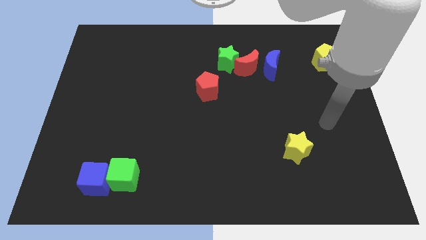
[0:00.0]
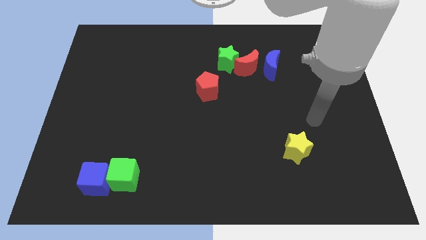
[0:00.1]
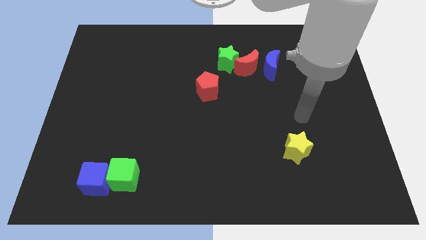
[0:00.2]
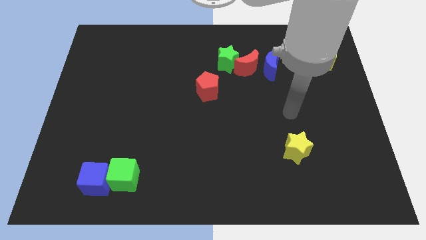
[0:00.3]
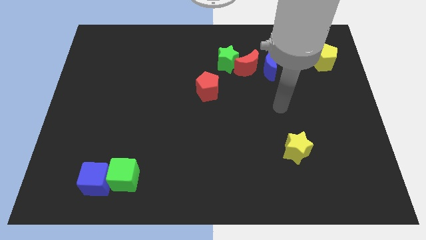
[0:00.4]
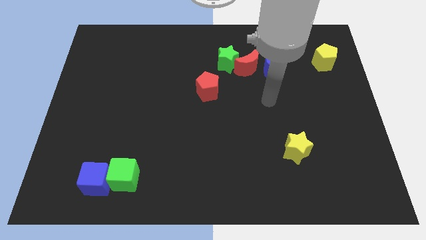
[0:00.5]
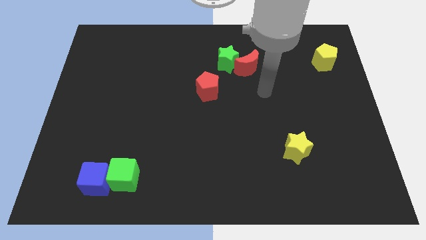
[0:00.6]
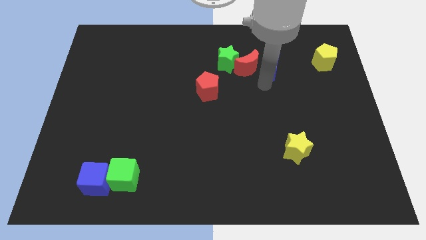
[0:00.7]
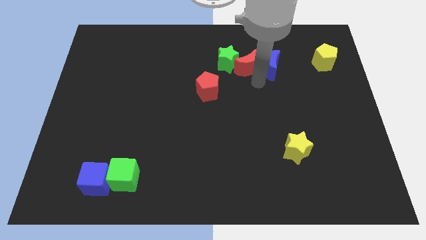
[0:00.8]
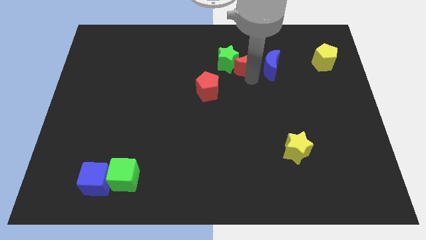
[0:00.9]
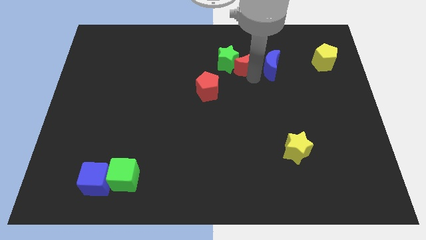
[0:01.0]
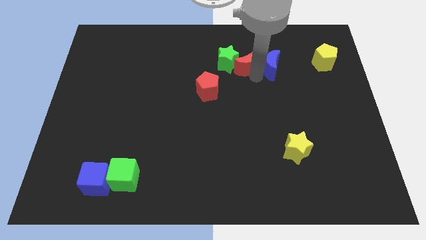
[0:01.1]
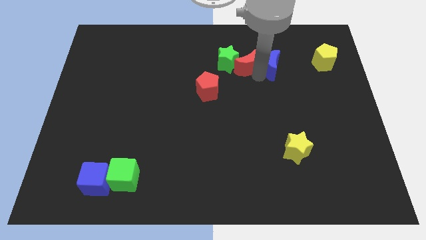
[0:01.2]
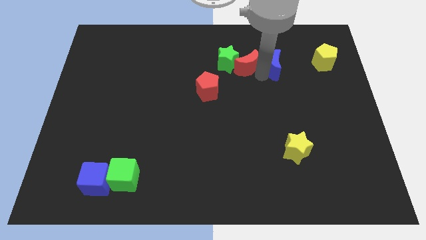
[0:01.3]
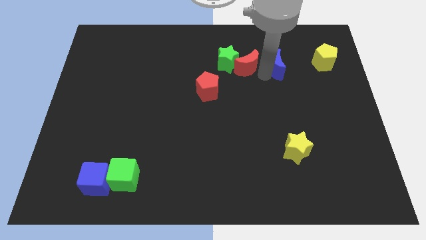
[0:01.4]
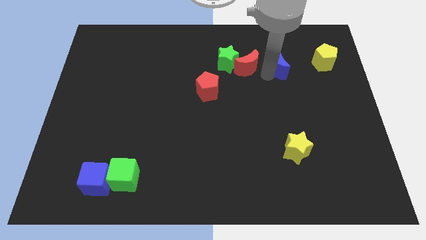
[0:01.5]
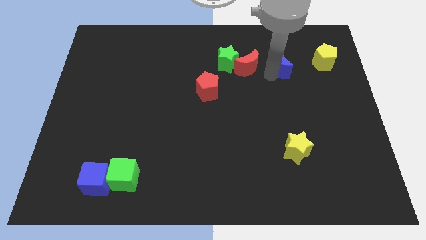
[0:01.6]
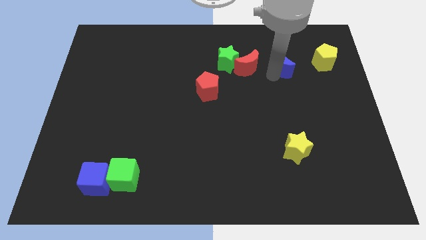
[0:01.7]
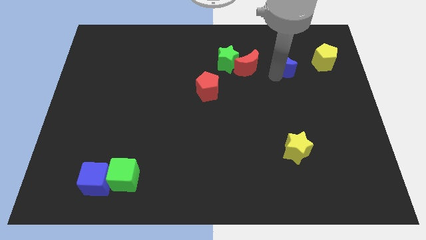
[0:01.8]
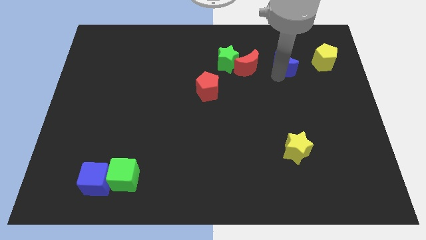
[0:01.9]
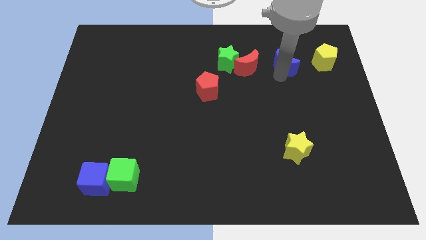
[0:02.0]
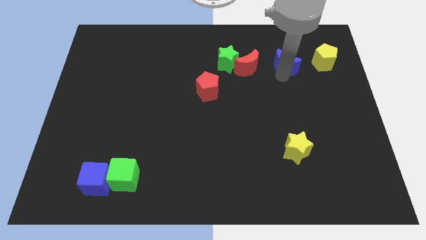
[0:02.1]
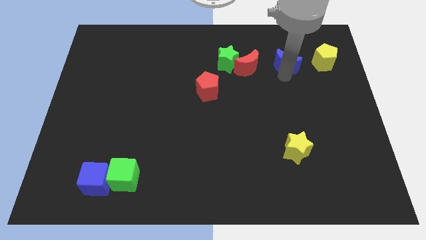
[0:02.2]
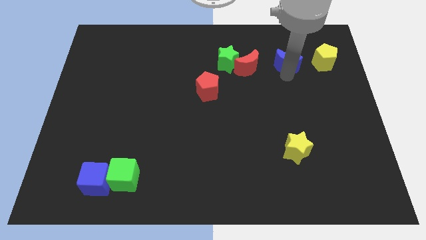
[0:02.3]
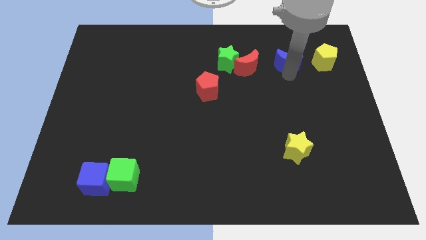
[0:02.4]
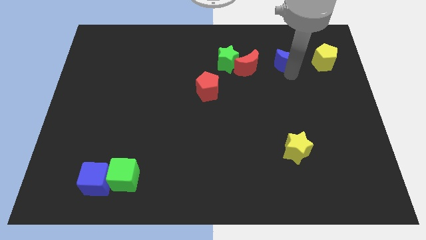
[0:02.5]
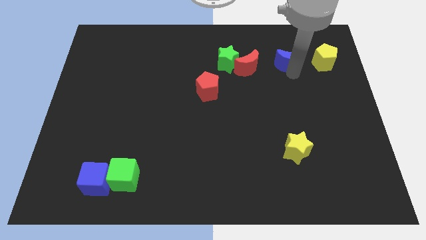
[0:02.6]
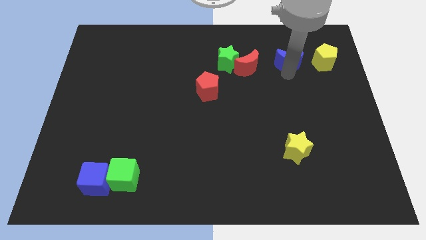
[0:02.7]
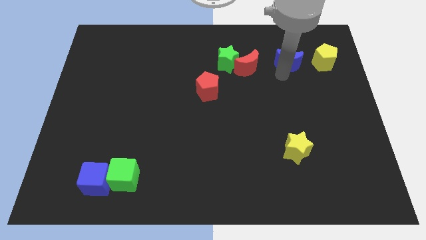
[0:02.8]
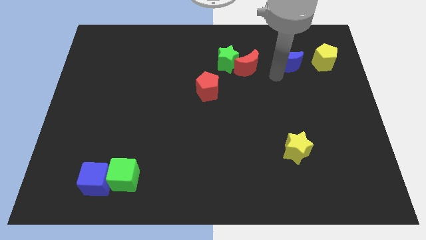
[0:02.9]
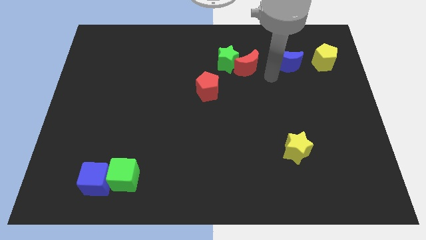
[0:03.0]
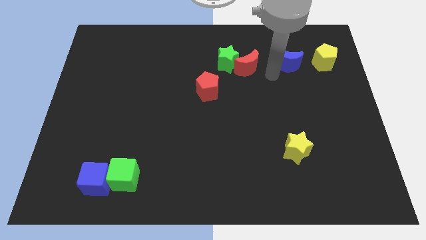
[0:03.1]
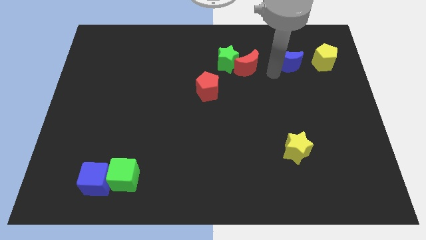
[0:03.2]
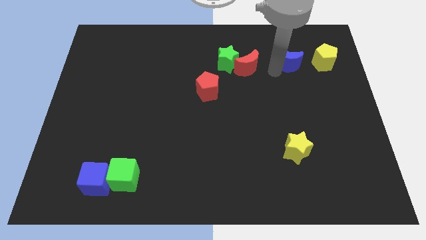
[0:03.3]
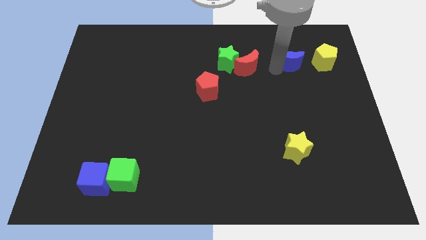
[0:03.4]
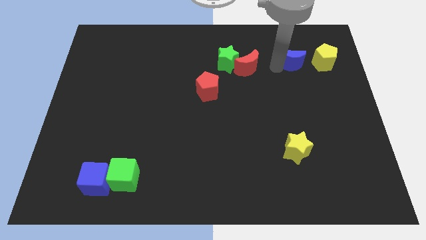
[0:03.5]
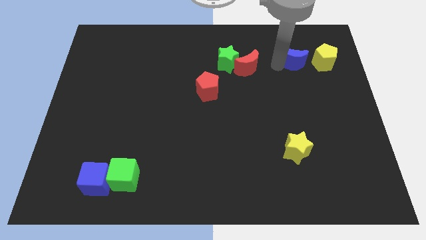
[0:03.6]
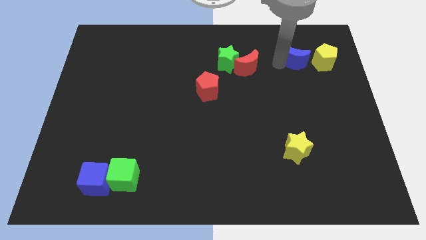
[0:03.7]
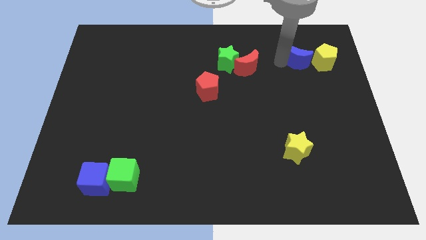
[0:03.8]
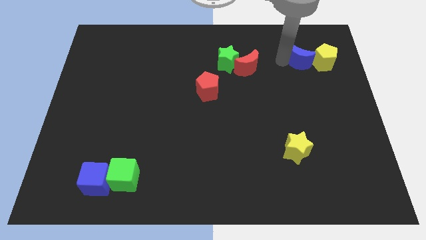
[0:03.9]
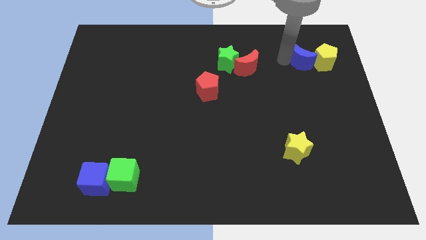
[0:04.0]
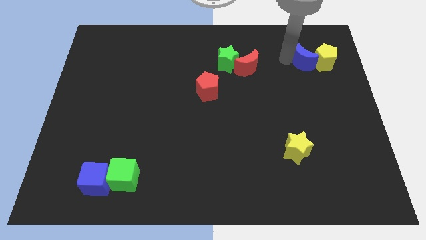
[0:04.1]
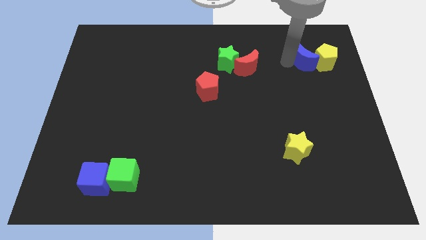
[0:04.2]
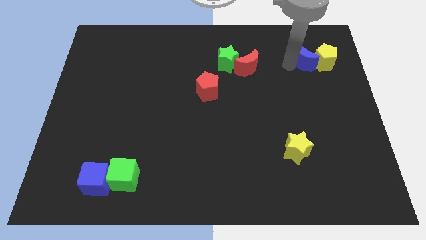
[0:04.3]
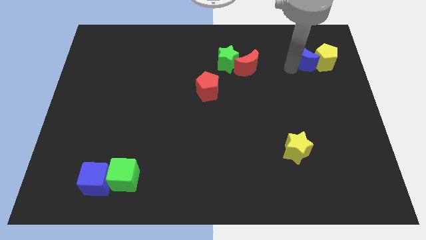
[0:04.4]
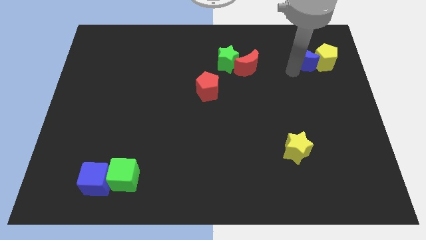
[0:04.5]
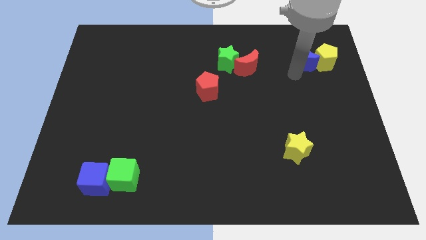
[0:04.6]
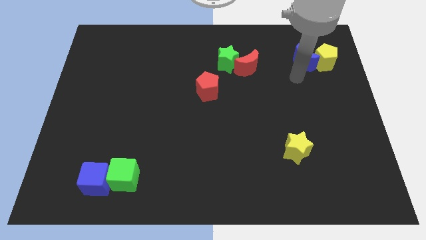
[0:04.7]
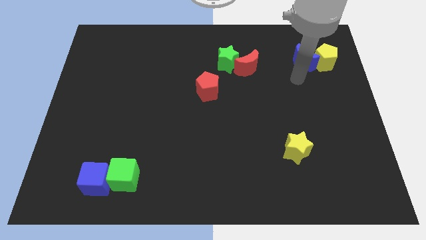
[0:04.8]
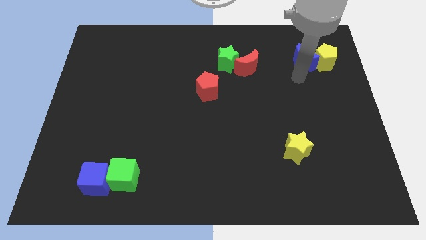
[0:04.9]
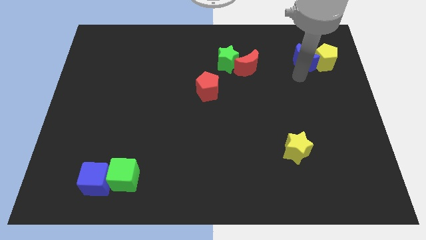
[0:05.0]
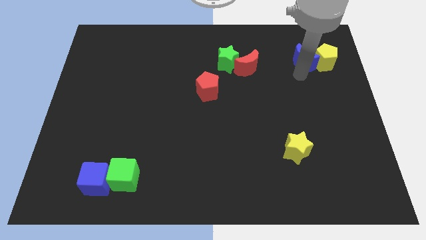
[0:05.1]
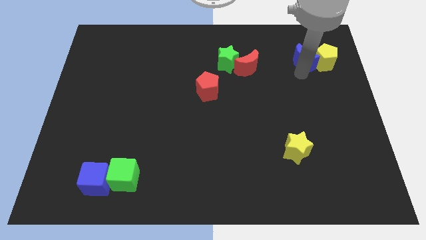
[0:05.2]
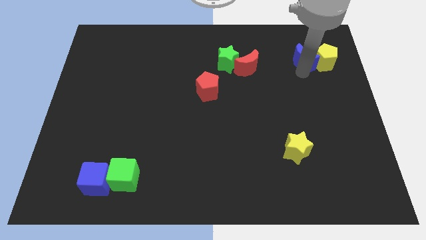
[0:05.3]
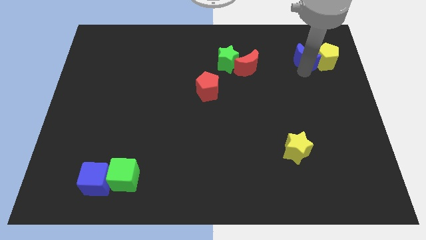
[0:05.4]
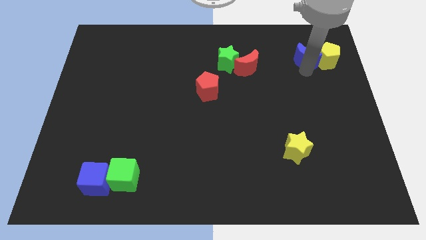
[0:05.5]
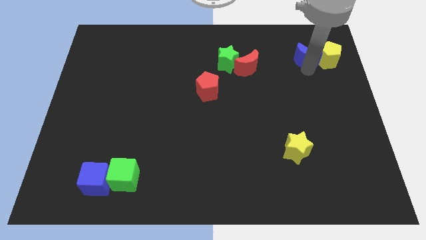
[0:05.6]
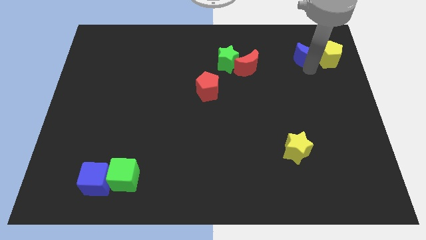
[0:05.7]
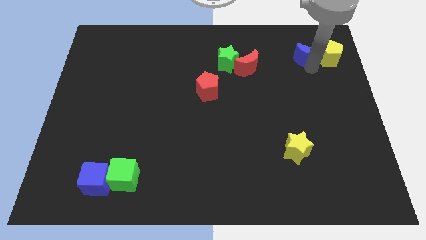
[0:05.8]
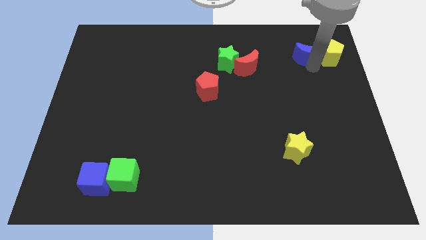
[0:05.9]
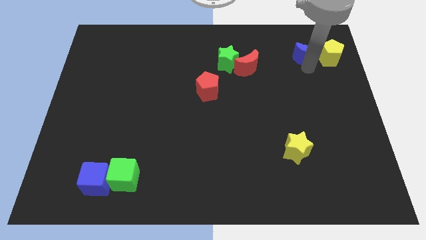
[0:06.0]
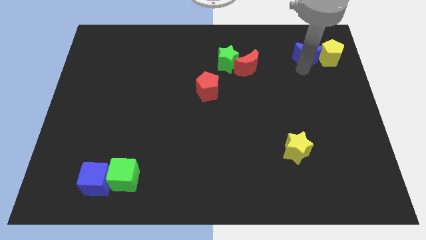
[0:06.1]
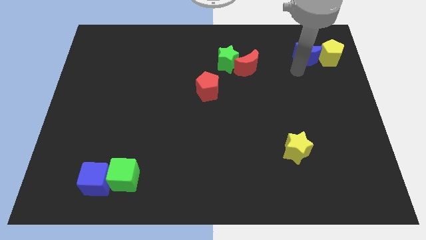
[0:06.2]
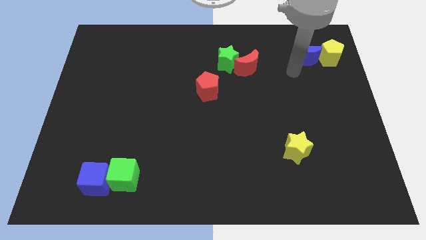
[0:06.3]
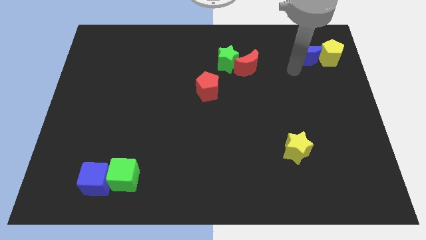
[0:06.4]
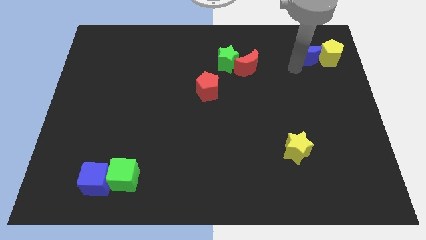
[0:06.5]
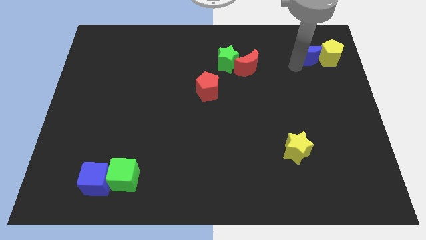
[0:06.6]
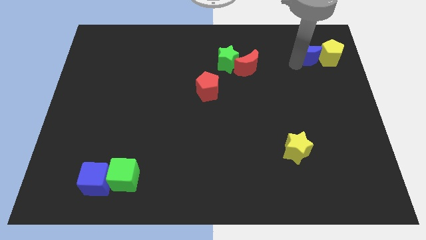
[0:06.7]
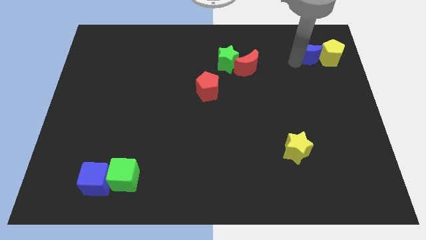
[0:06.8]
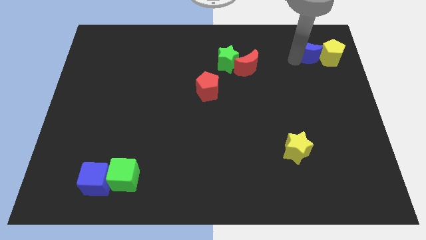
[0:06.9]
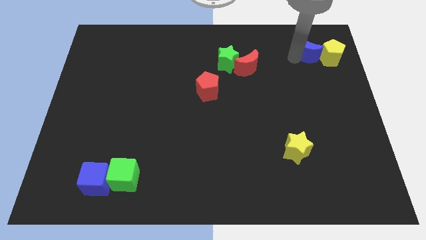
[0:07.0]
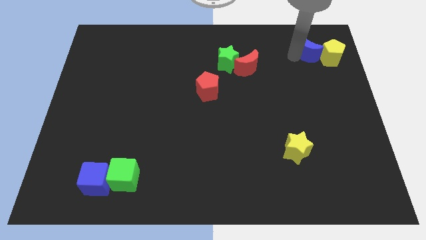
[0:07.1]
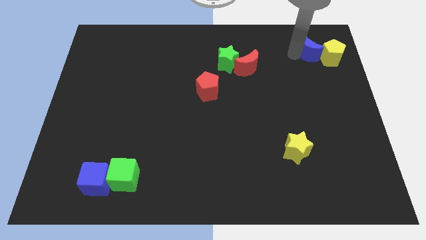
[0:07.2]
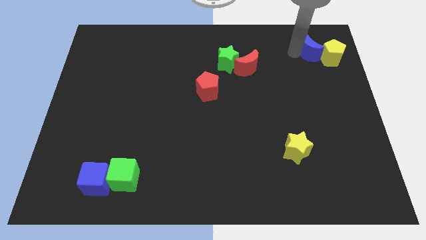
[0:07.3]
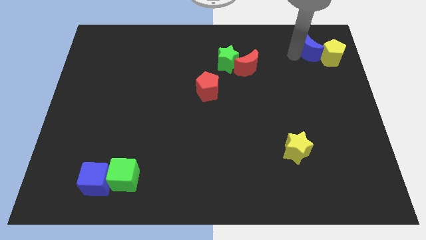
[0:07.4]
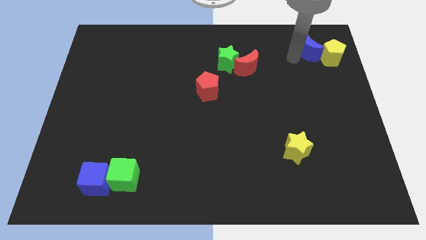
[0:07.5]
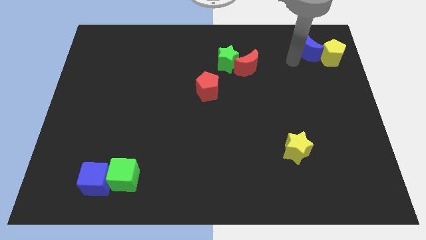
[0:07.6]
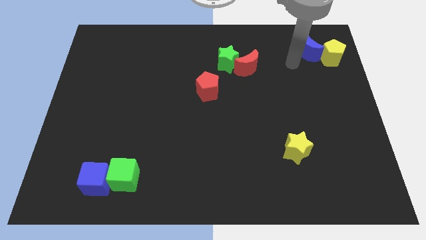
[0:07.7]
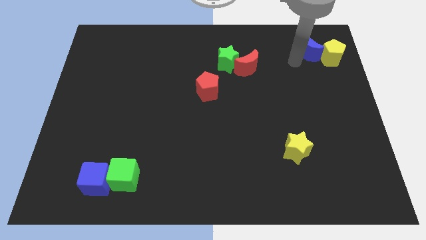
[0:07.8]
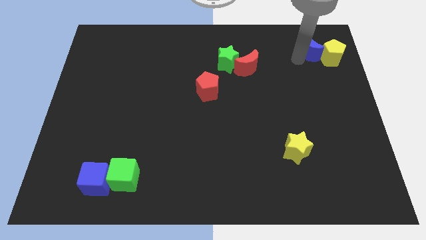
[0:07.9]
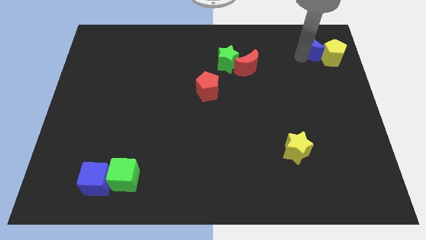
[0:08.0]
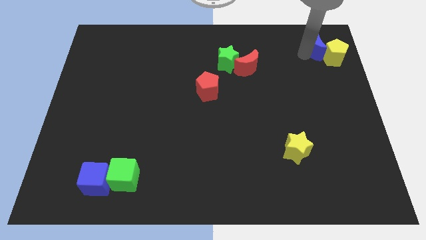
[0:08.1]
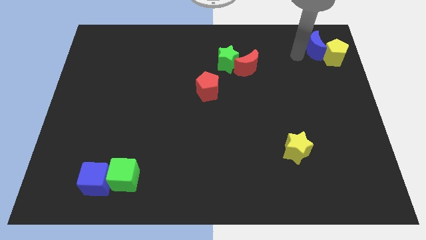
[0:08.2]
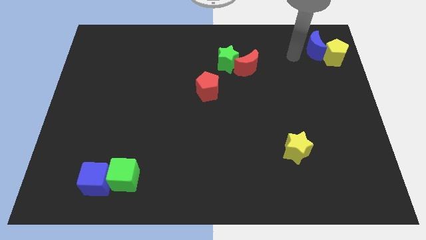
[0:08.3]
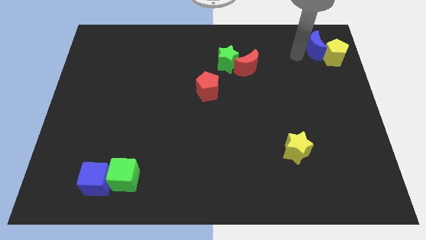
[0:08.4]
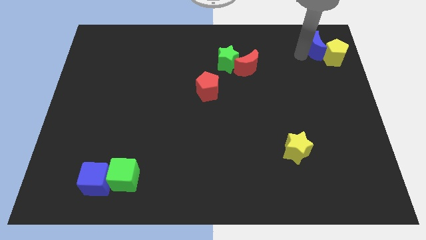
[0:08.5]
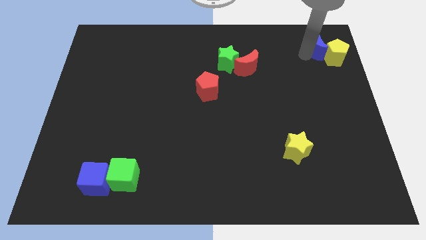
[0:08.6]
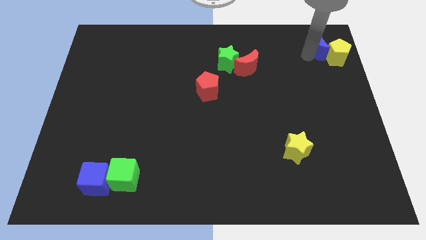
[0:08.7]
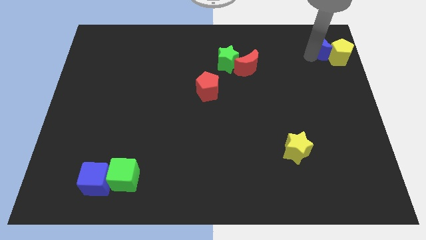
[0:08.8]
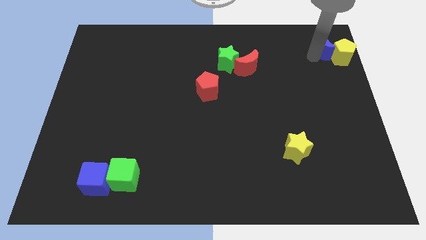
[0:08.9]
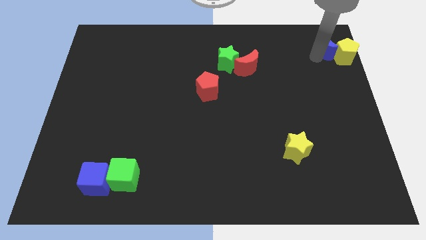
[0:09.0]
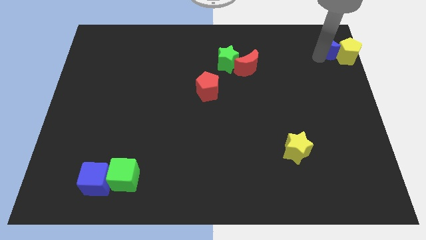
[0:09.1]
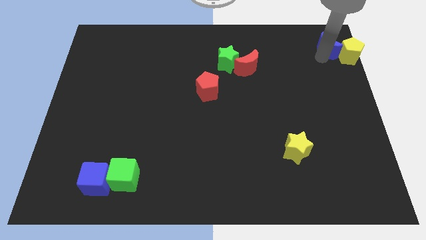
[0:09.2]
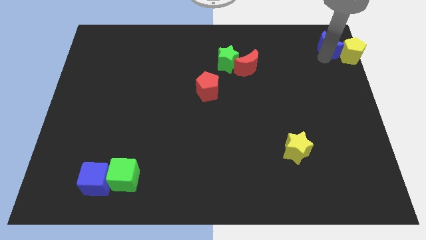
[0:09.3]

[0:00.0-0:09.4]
move the blue moon to the upper right corner
